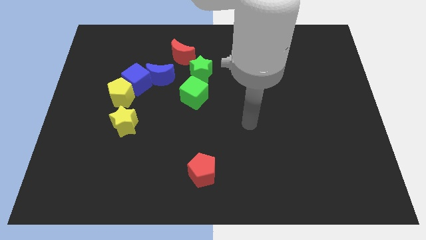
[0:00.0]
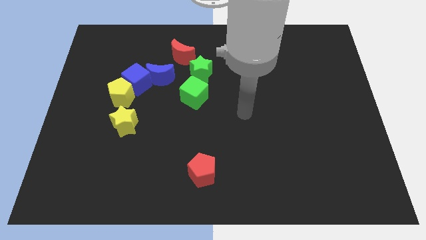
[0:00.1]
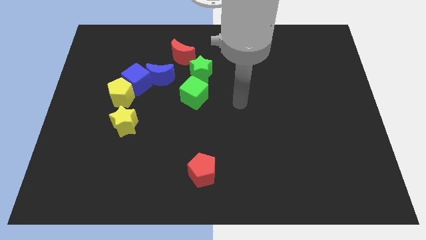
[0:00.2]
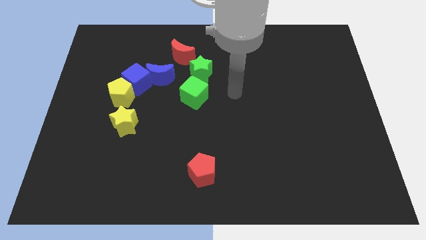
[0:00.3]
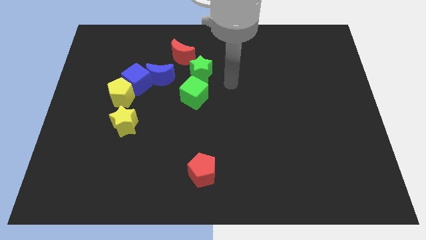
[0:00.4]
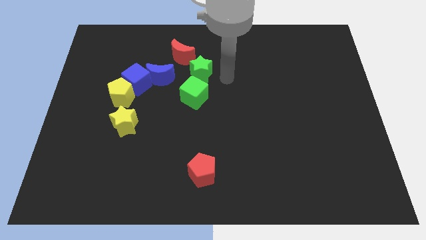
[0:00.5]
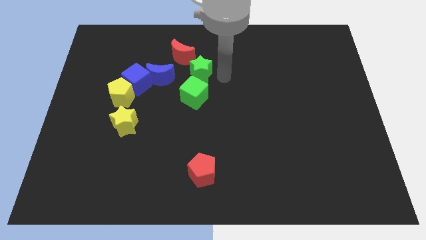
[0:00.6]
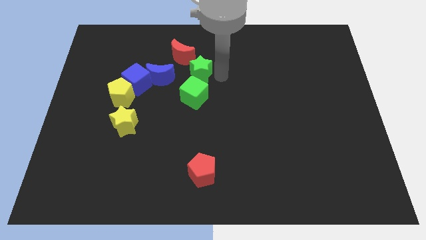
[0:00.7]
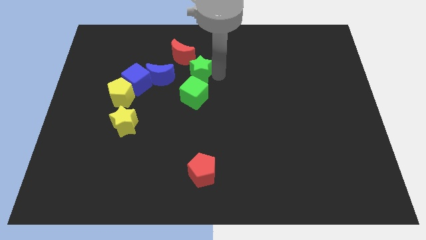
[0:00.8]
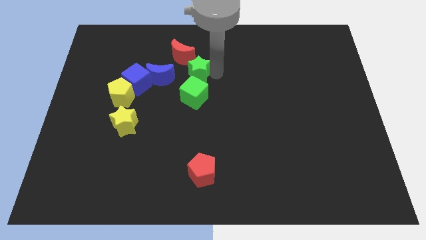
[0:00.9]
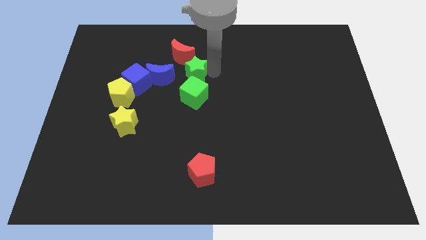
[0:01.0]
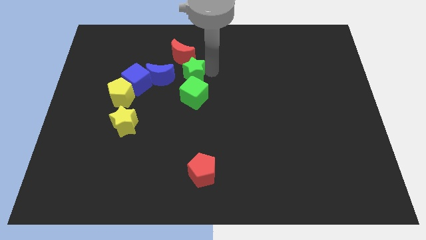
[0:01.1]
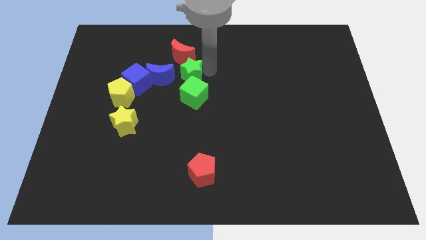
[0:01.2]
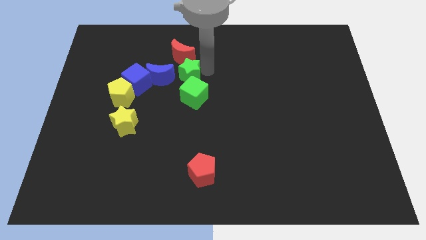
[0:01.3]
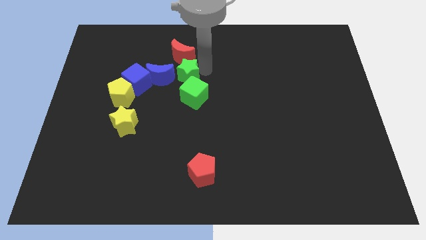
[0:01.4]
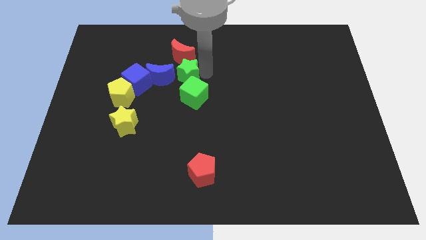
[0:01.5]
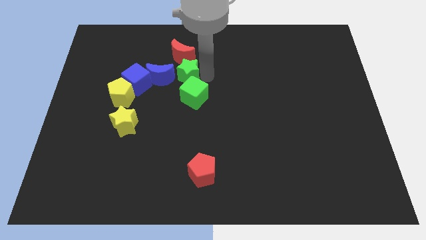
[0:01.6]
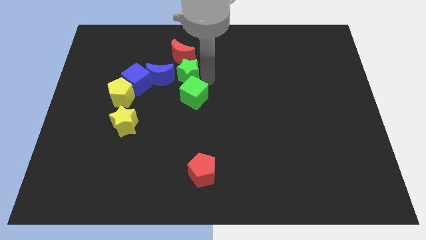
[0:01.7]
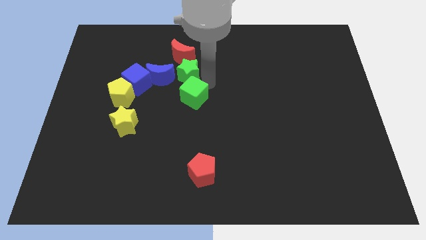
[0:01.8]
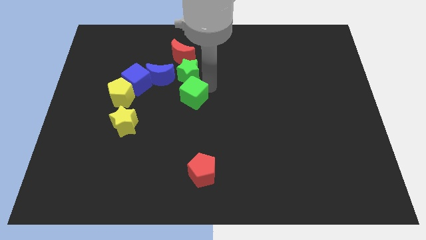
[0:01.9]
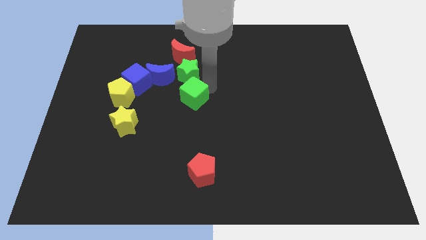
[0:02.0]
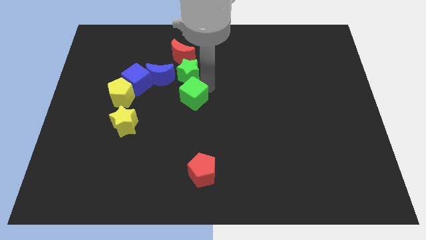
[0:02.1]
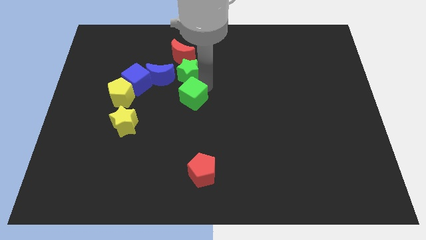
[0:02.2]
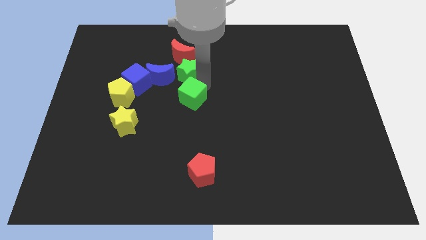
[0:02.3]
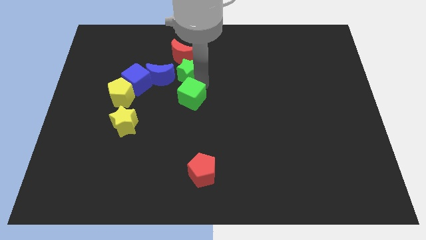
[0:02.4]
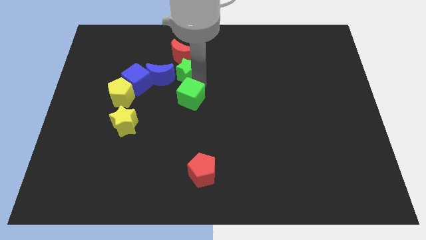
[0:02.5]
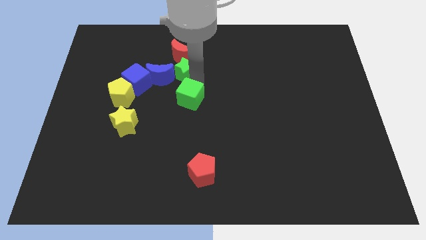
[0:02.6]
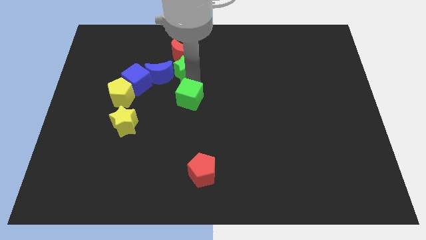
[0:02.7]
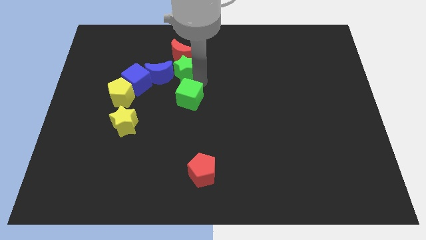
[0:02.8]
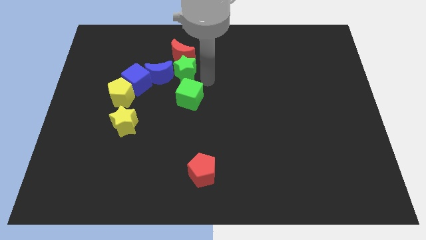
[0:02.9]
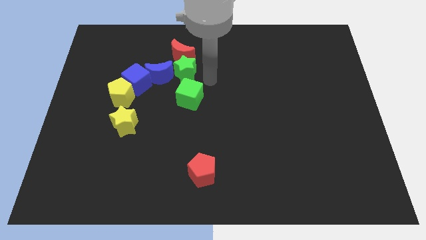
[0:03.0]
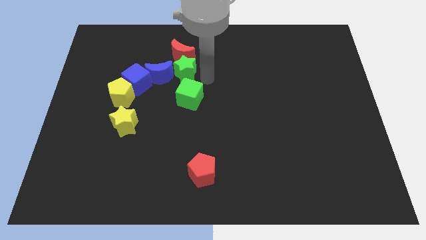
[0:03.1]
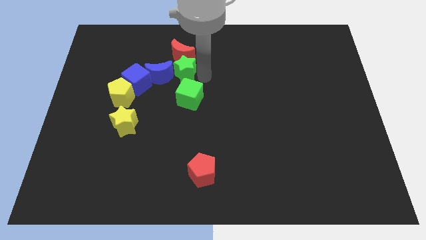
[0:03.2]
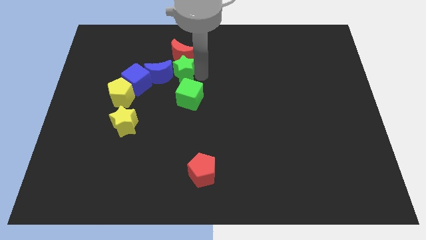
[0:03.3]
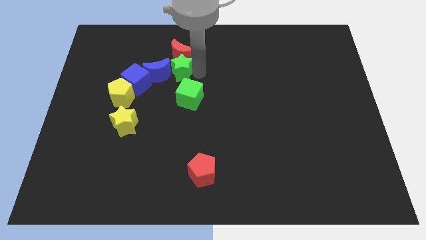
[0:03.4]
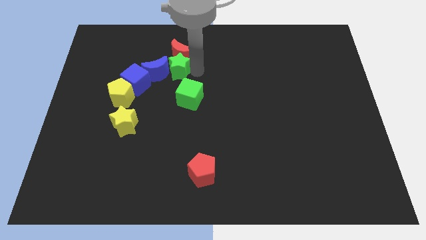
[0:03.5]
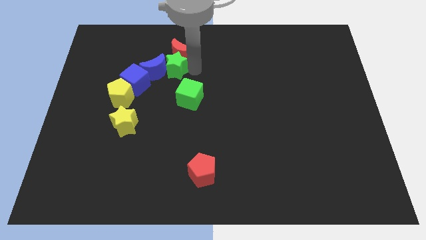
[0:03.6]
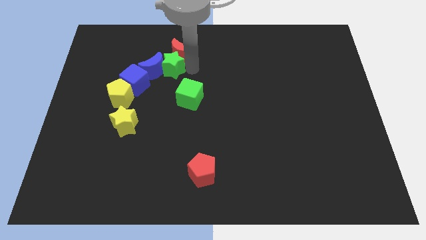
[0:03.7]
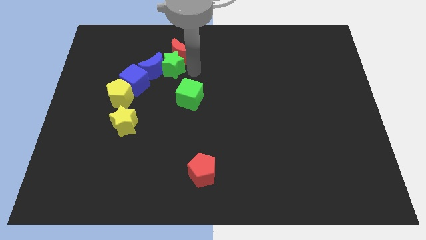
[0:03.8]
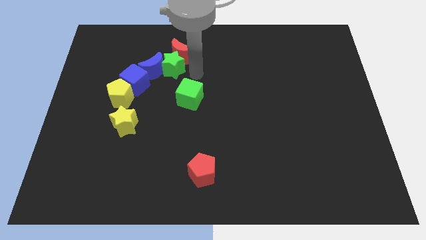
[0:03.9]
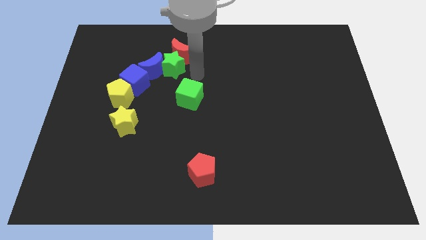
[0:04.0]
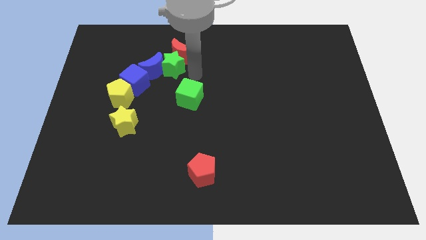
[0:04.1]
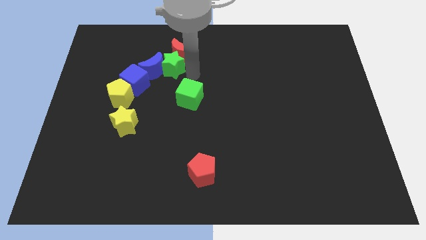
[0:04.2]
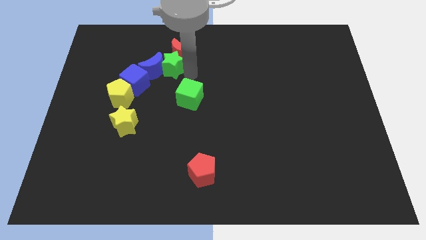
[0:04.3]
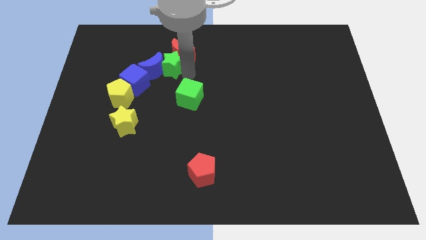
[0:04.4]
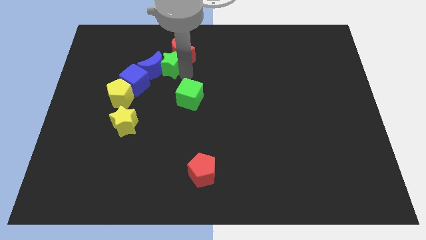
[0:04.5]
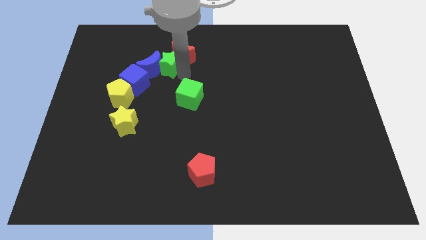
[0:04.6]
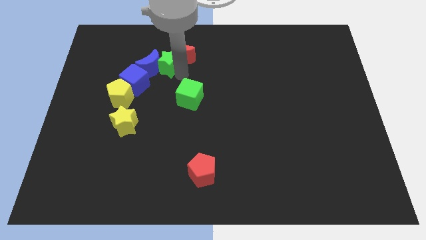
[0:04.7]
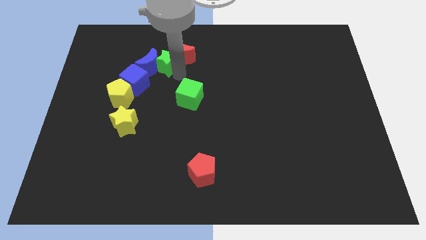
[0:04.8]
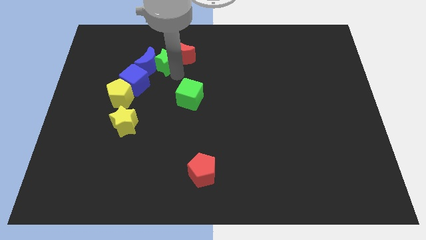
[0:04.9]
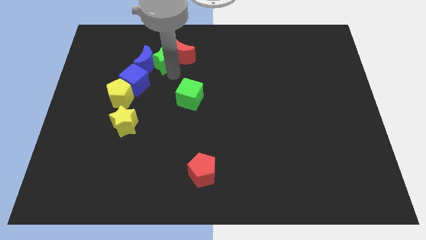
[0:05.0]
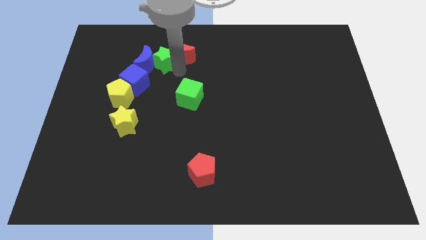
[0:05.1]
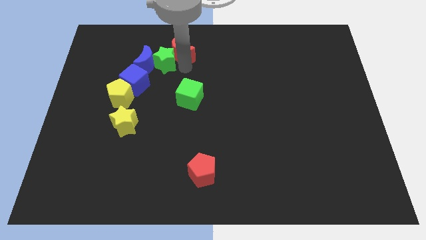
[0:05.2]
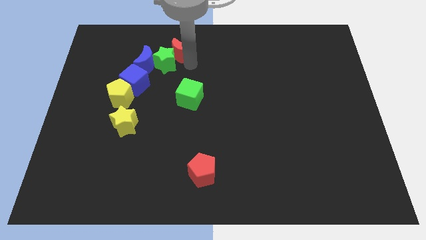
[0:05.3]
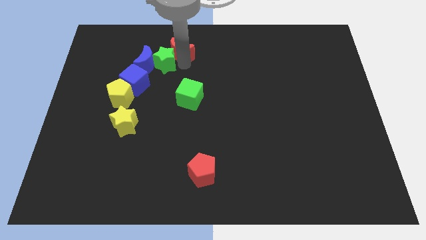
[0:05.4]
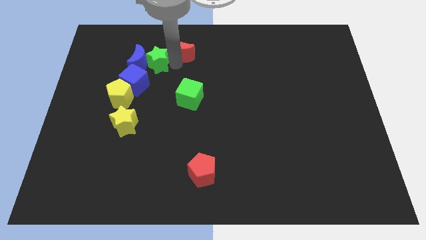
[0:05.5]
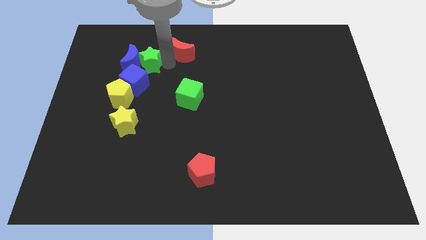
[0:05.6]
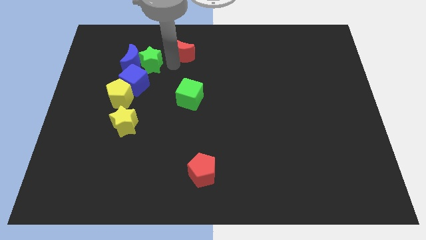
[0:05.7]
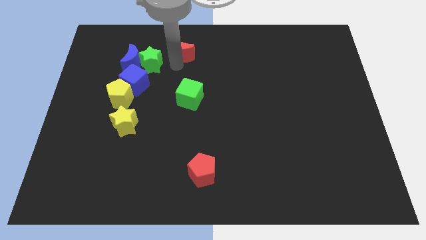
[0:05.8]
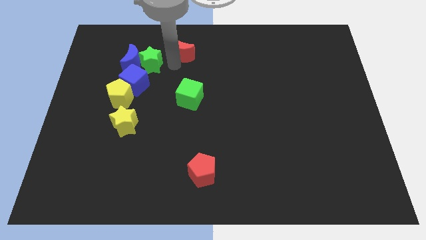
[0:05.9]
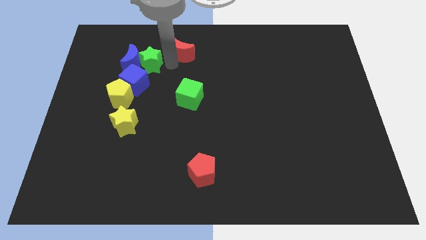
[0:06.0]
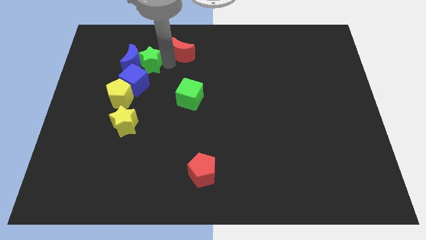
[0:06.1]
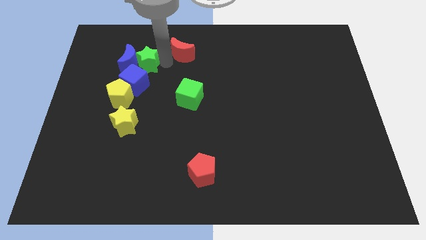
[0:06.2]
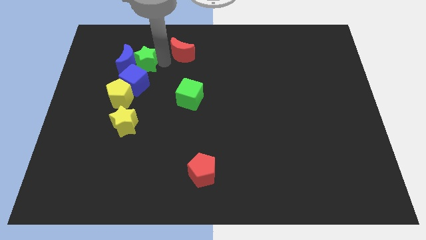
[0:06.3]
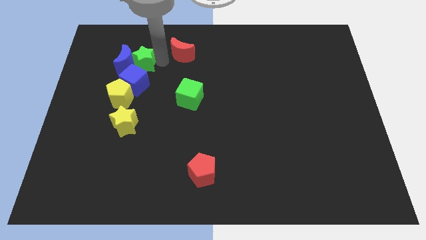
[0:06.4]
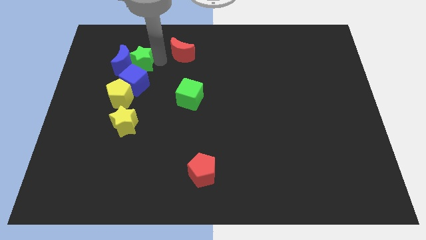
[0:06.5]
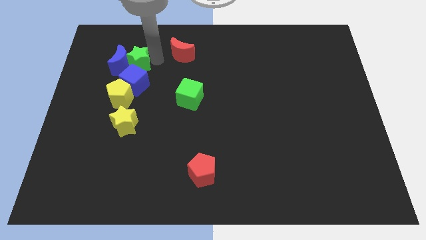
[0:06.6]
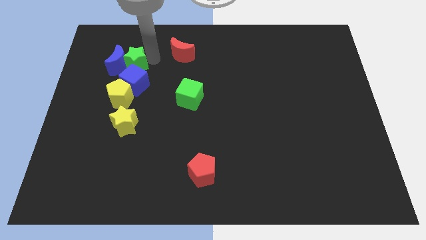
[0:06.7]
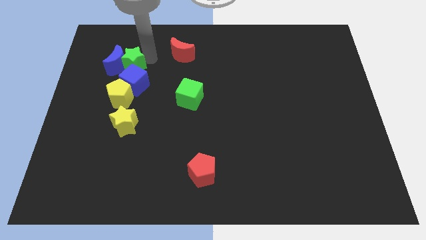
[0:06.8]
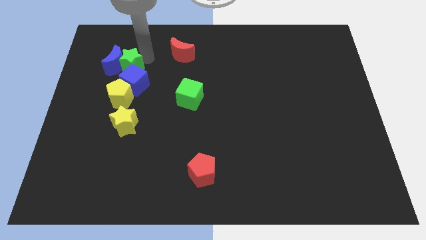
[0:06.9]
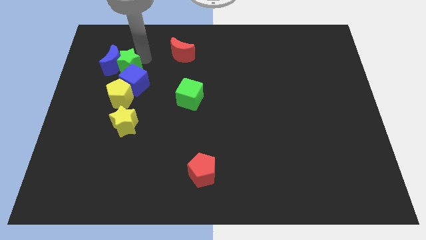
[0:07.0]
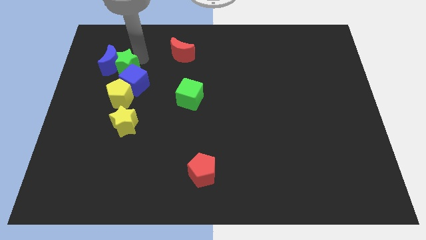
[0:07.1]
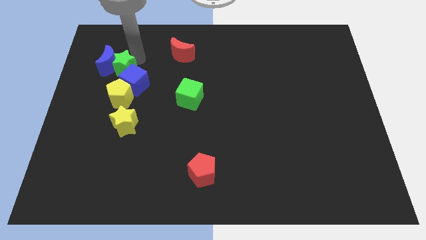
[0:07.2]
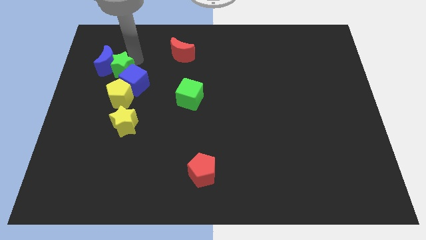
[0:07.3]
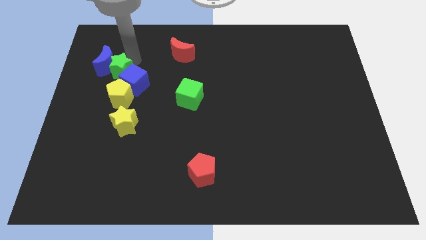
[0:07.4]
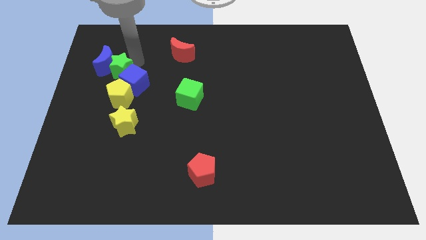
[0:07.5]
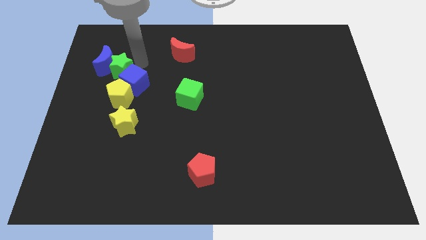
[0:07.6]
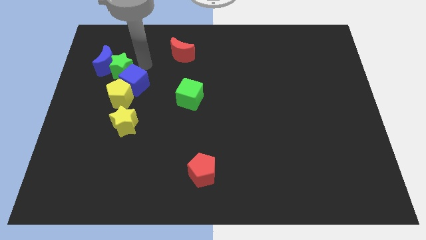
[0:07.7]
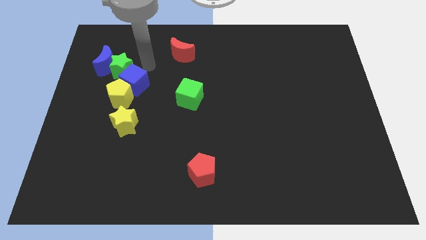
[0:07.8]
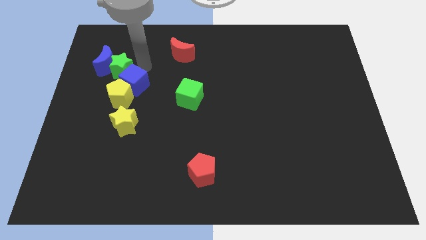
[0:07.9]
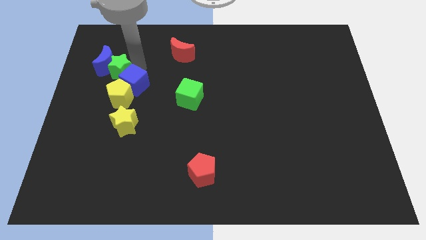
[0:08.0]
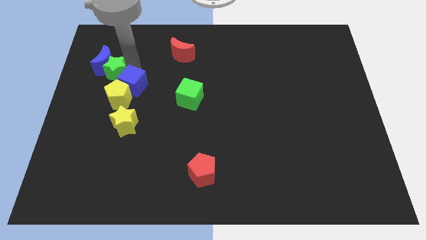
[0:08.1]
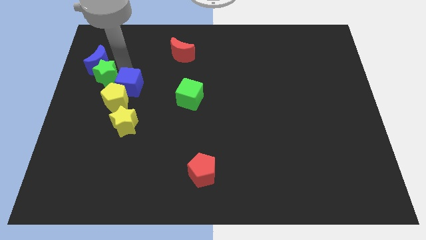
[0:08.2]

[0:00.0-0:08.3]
slide the green star to the left side
